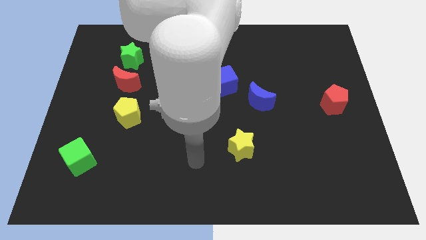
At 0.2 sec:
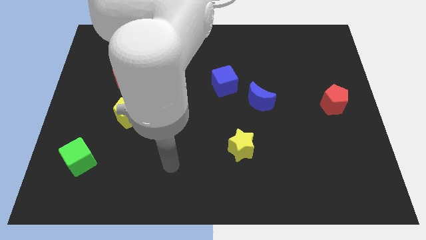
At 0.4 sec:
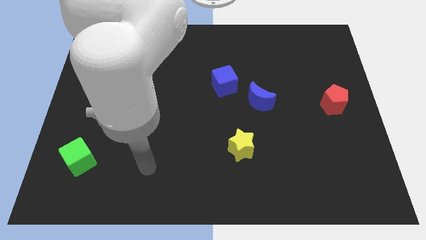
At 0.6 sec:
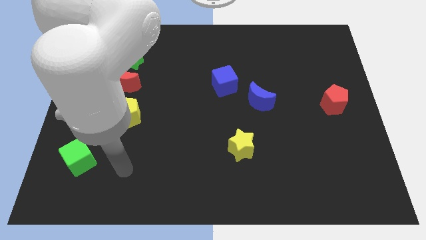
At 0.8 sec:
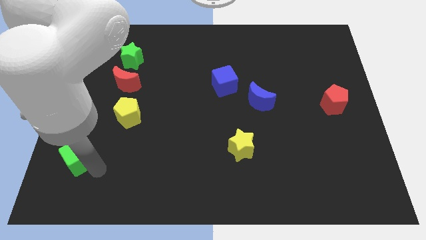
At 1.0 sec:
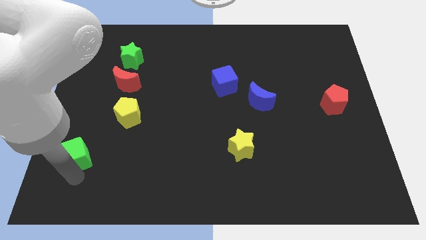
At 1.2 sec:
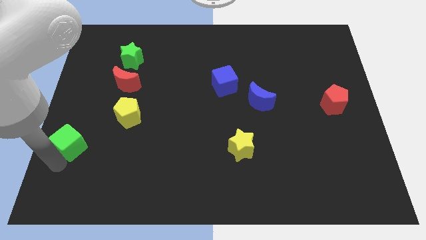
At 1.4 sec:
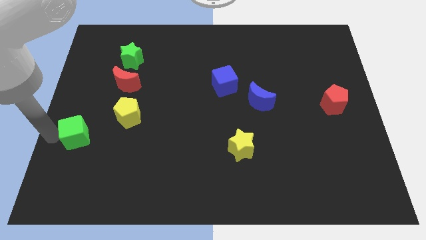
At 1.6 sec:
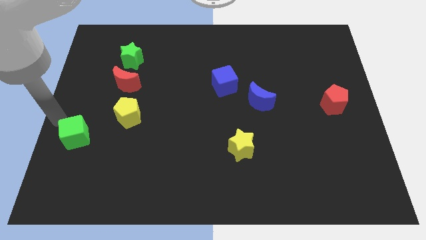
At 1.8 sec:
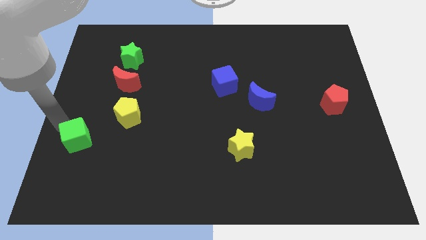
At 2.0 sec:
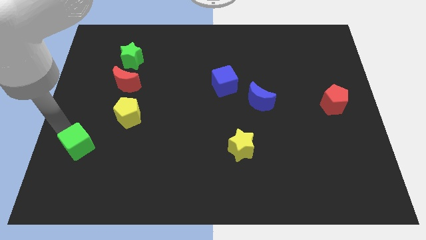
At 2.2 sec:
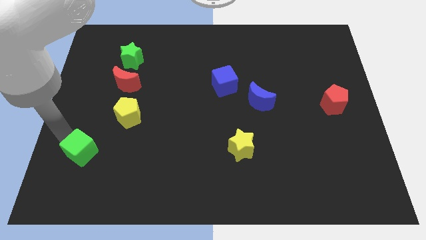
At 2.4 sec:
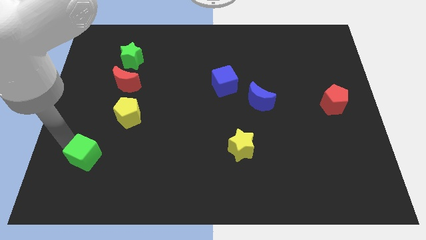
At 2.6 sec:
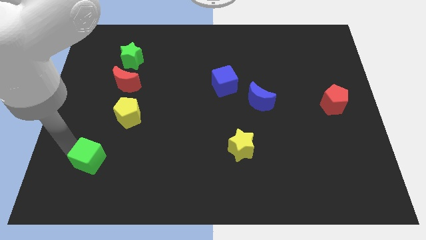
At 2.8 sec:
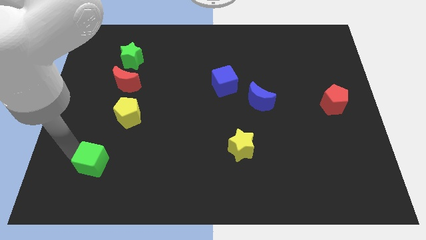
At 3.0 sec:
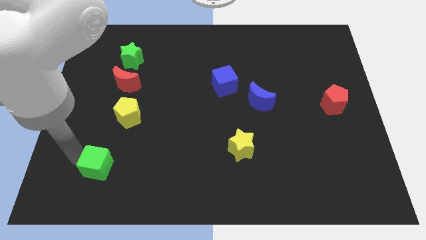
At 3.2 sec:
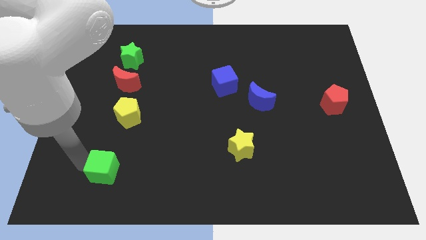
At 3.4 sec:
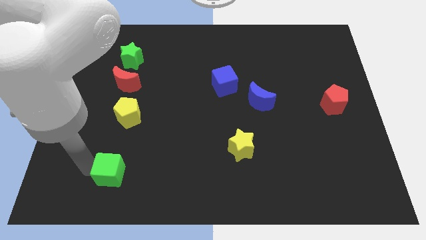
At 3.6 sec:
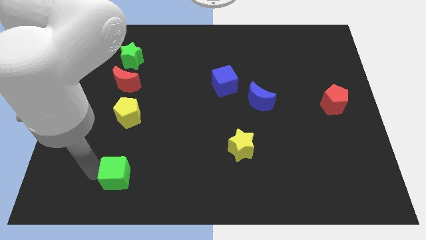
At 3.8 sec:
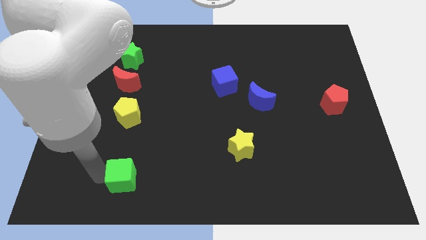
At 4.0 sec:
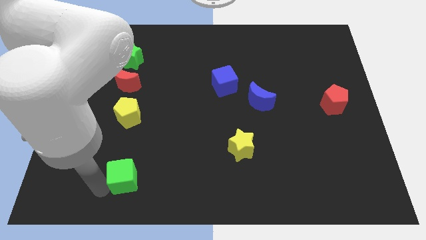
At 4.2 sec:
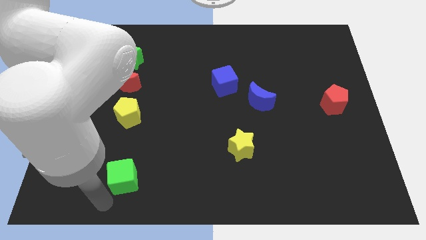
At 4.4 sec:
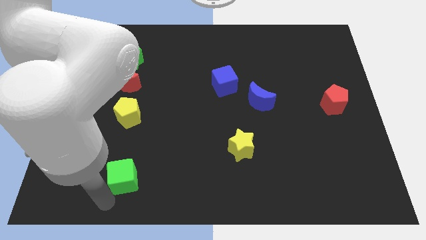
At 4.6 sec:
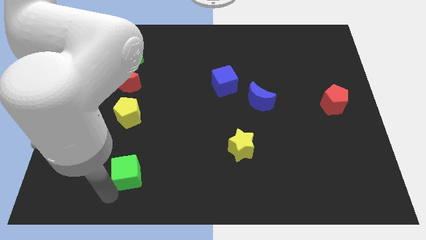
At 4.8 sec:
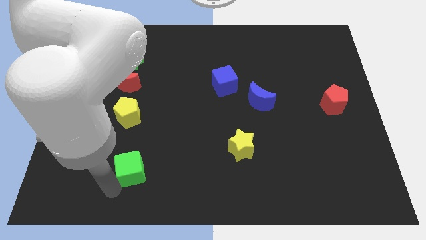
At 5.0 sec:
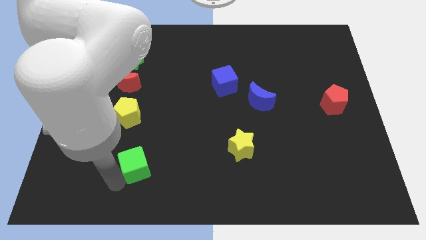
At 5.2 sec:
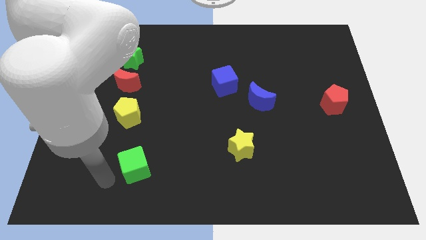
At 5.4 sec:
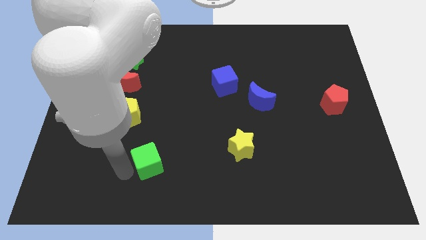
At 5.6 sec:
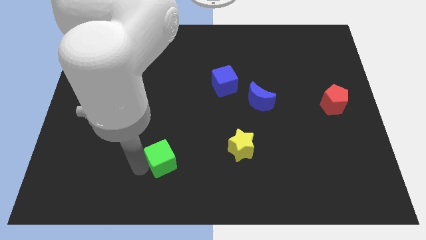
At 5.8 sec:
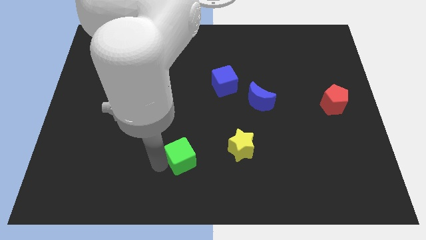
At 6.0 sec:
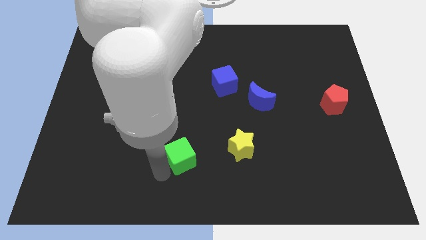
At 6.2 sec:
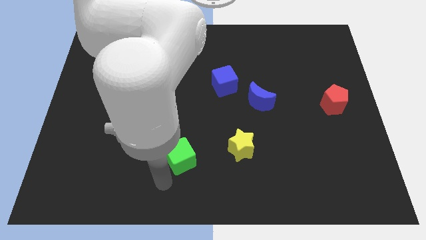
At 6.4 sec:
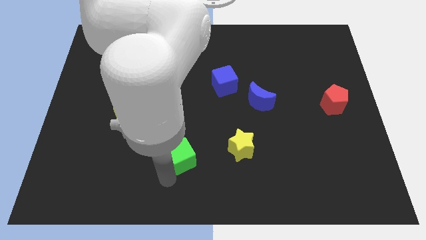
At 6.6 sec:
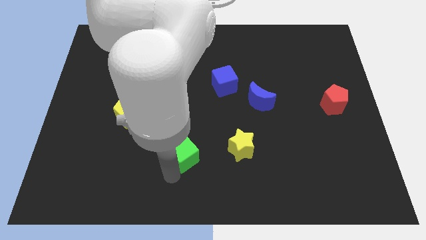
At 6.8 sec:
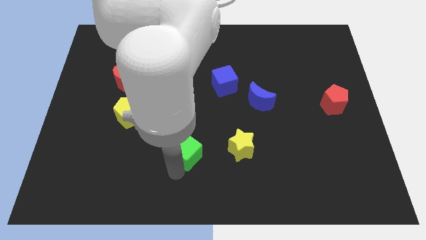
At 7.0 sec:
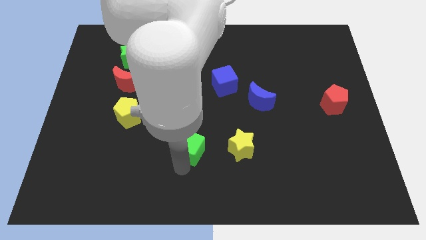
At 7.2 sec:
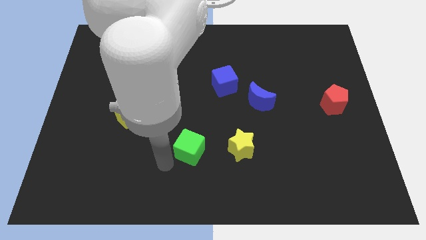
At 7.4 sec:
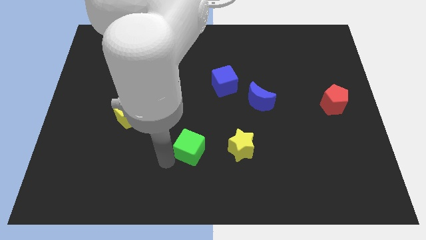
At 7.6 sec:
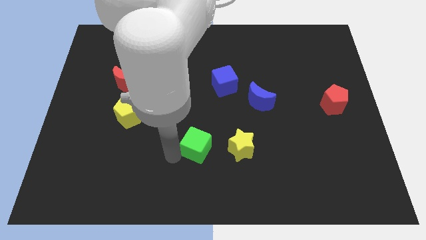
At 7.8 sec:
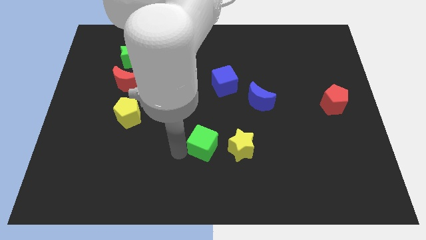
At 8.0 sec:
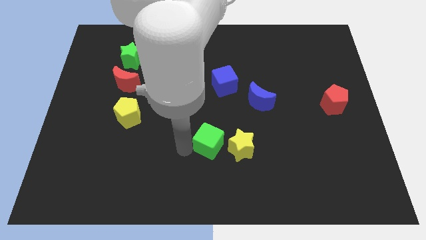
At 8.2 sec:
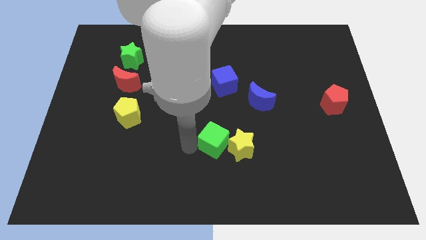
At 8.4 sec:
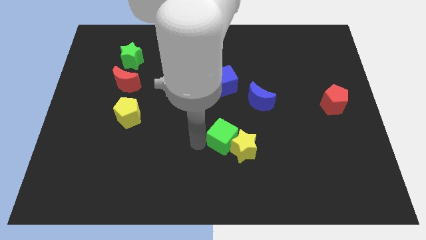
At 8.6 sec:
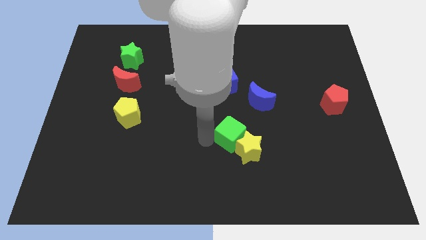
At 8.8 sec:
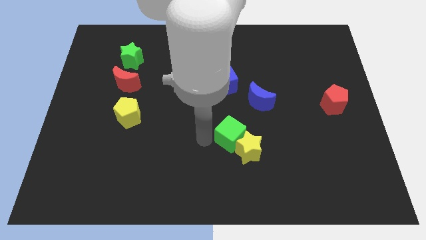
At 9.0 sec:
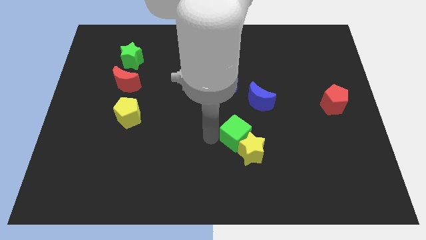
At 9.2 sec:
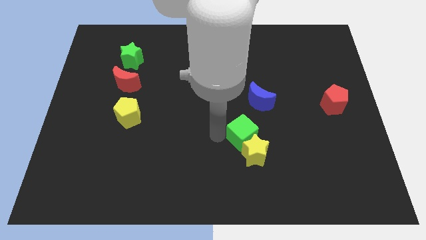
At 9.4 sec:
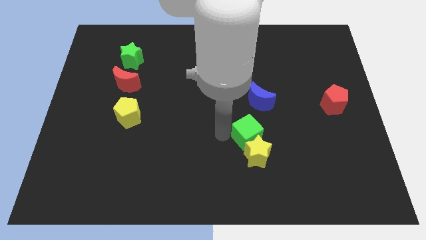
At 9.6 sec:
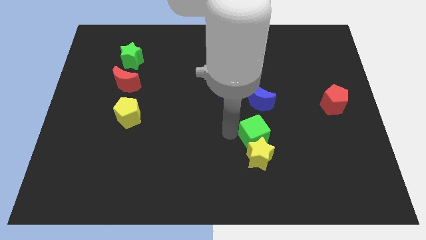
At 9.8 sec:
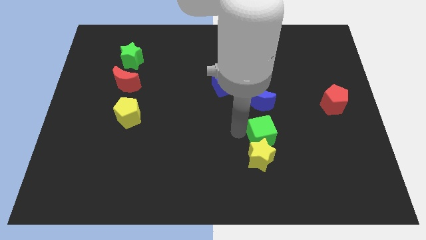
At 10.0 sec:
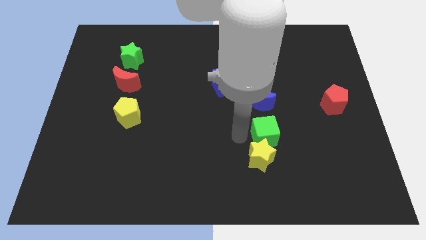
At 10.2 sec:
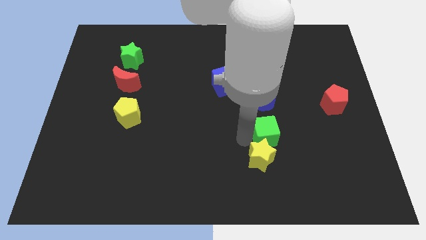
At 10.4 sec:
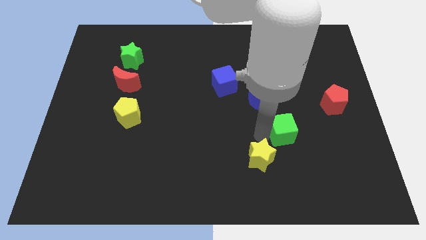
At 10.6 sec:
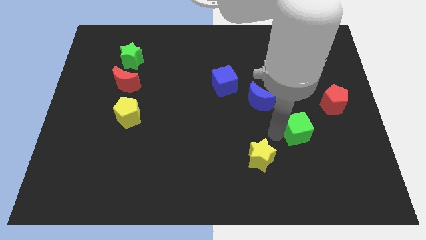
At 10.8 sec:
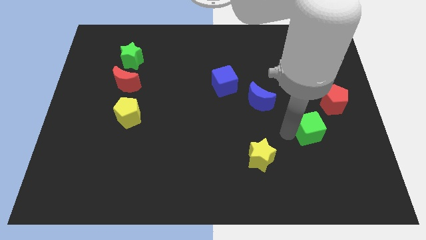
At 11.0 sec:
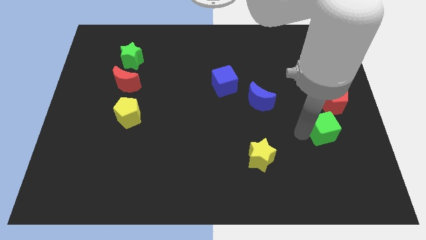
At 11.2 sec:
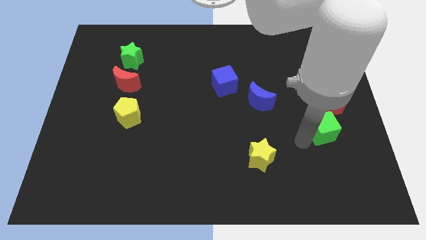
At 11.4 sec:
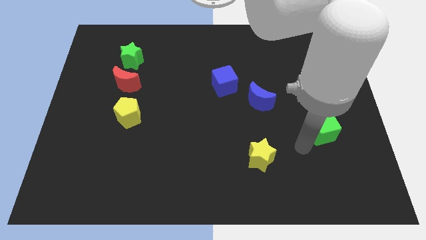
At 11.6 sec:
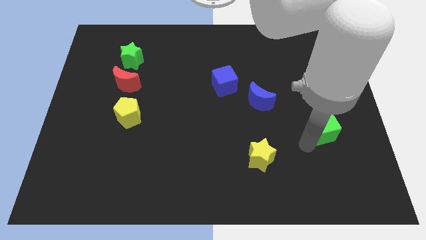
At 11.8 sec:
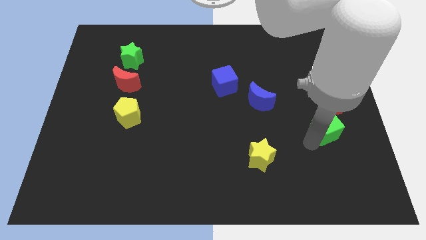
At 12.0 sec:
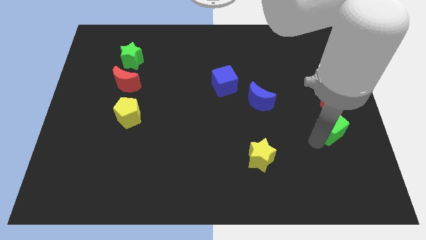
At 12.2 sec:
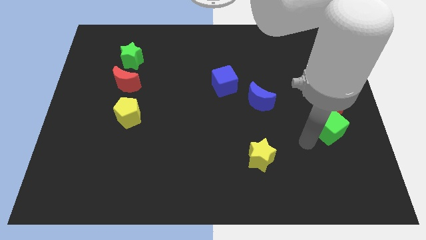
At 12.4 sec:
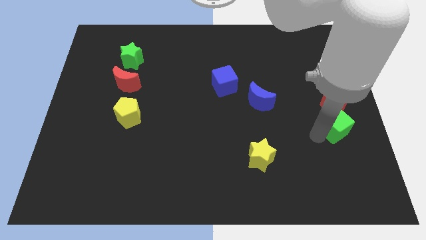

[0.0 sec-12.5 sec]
push the green cube to the right side of the board

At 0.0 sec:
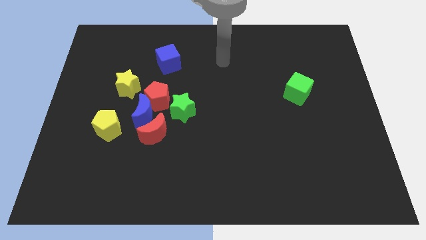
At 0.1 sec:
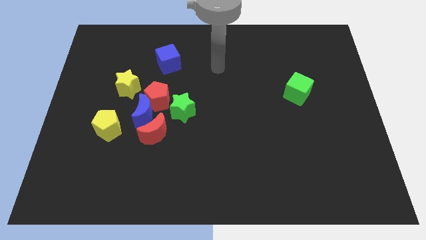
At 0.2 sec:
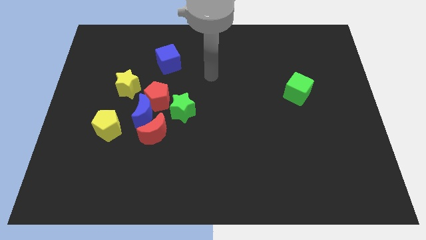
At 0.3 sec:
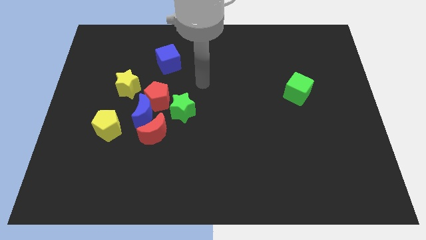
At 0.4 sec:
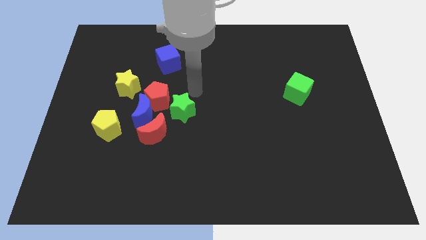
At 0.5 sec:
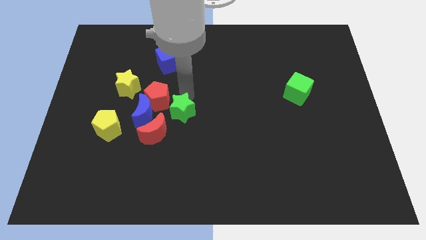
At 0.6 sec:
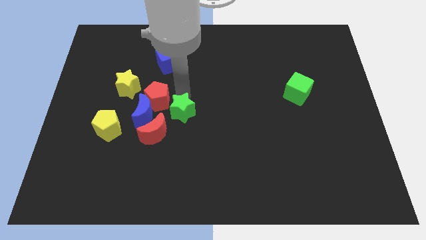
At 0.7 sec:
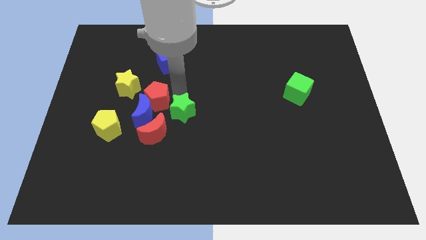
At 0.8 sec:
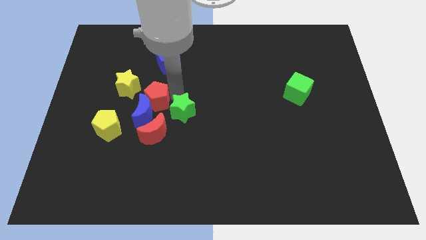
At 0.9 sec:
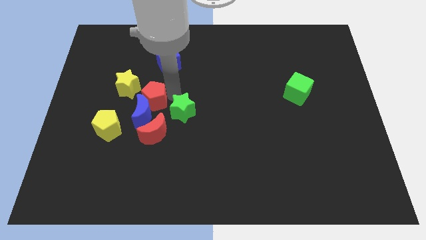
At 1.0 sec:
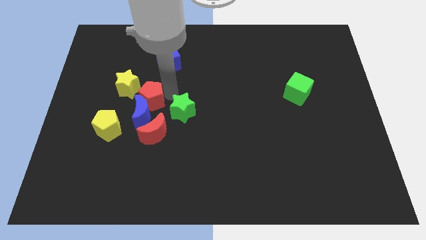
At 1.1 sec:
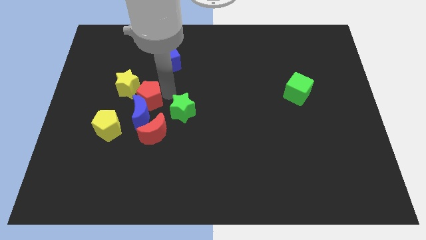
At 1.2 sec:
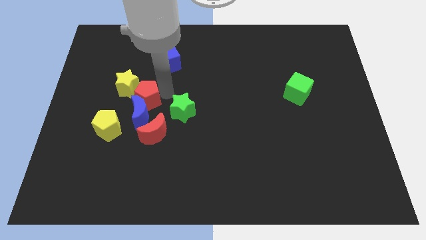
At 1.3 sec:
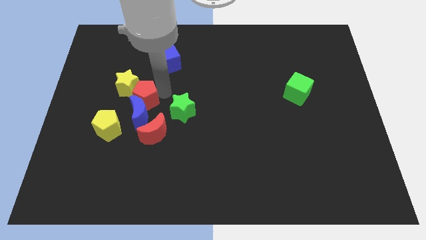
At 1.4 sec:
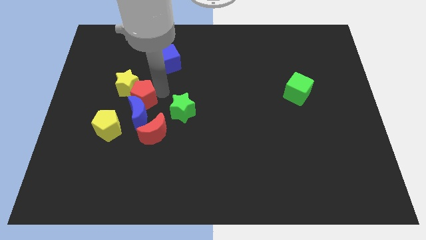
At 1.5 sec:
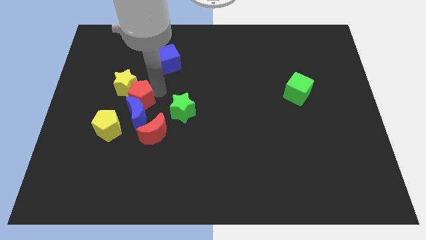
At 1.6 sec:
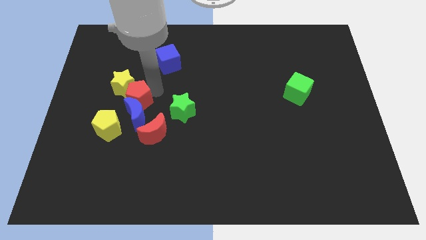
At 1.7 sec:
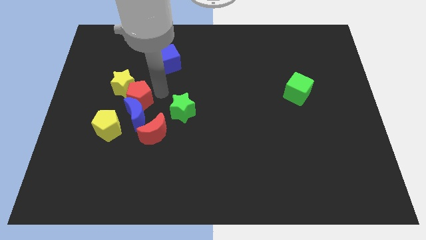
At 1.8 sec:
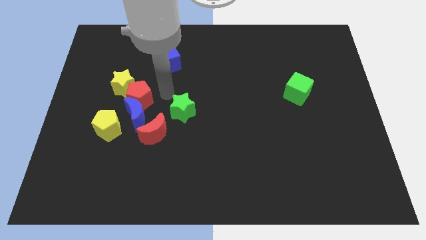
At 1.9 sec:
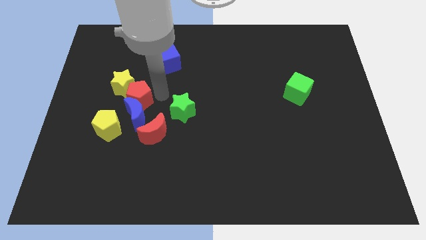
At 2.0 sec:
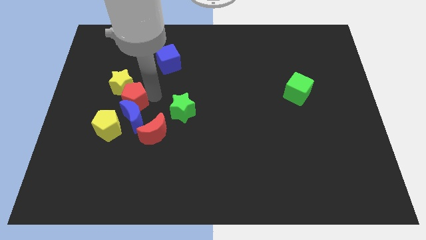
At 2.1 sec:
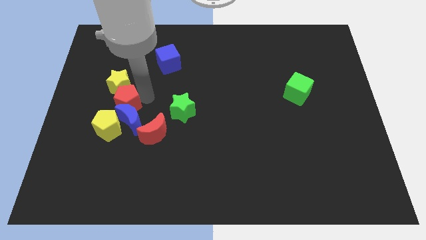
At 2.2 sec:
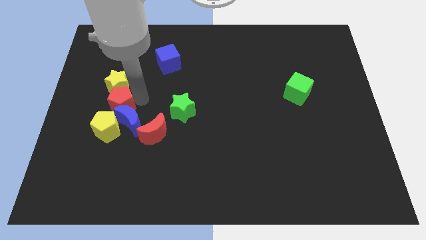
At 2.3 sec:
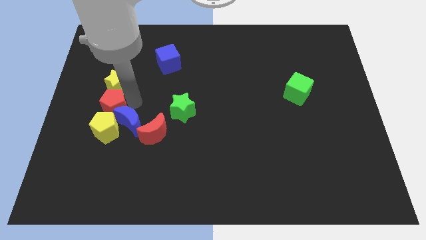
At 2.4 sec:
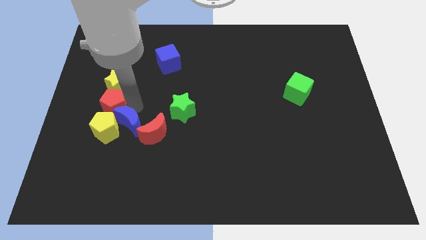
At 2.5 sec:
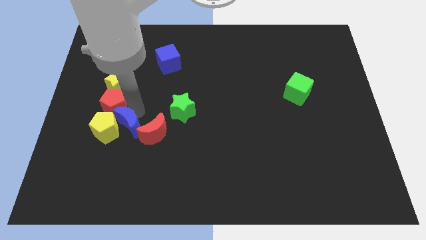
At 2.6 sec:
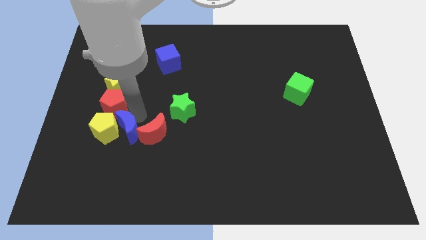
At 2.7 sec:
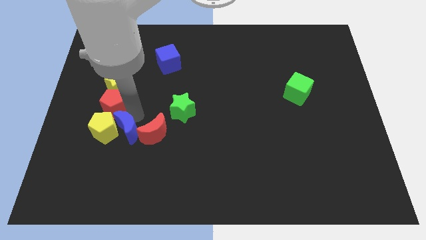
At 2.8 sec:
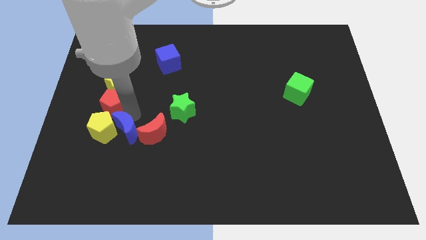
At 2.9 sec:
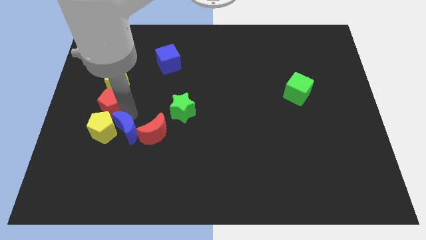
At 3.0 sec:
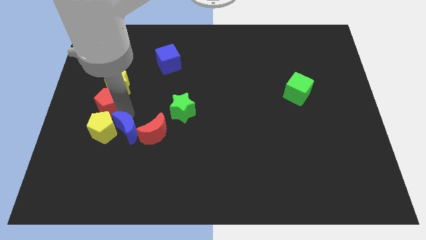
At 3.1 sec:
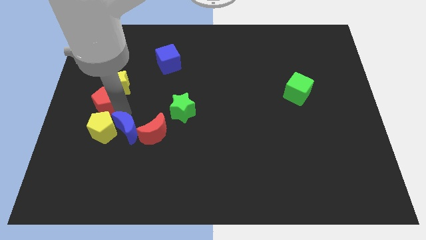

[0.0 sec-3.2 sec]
put the red pentagon to the left side
